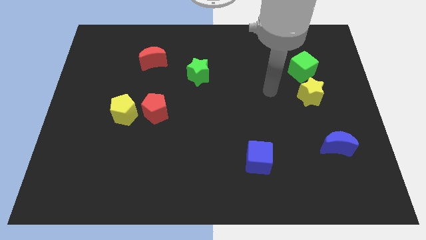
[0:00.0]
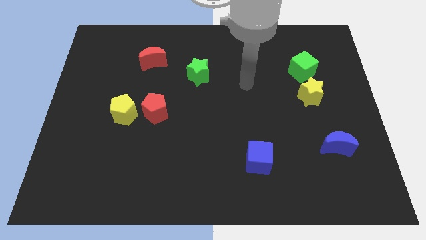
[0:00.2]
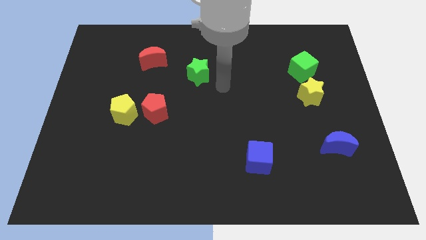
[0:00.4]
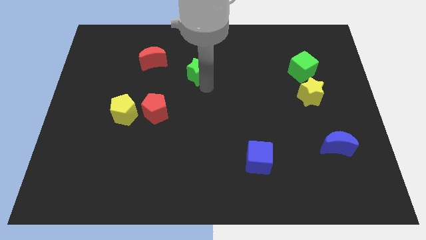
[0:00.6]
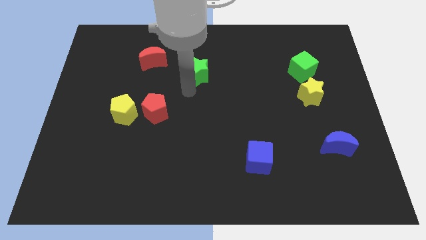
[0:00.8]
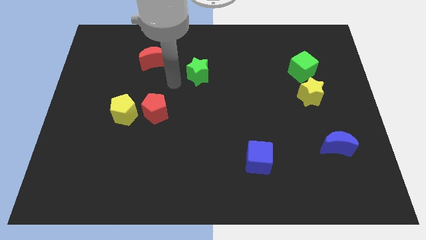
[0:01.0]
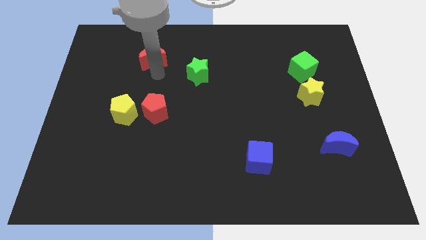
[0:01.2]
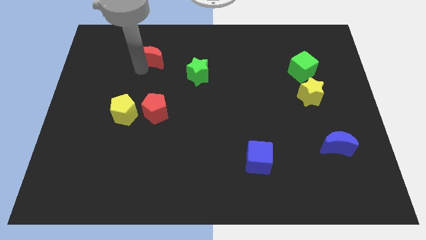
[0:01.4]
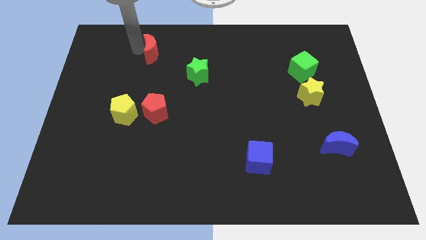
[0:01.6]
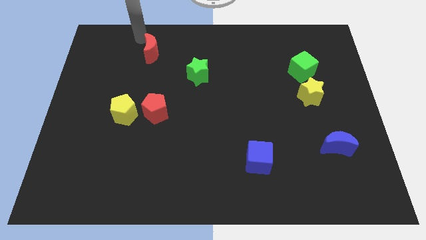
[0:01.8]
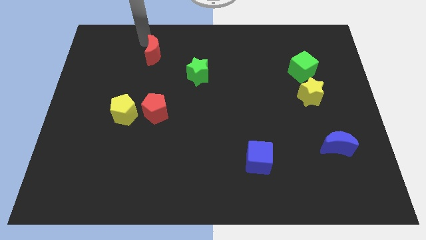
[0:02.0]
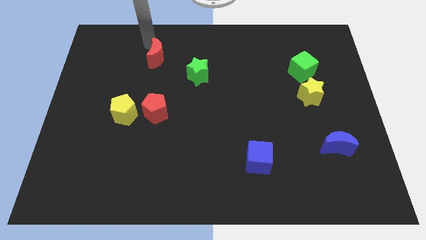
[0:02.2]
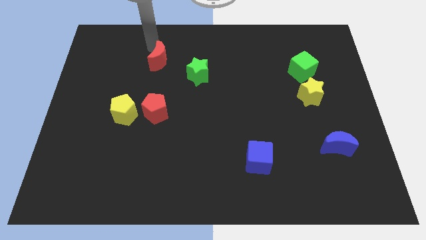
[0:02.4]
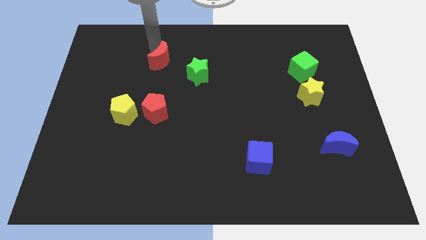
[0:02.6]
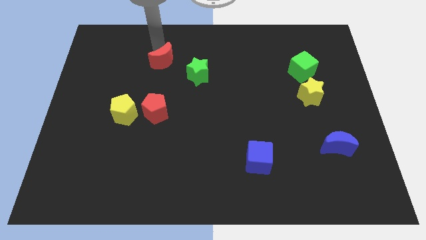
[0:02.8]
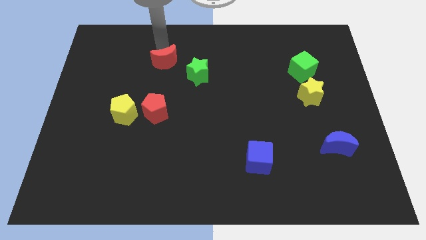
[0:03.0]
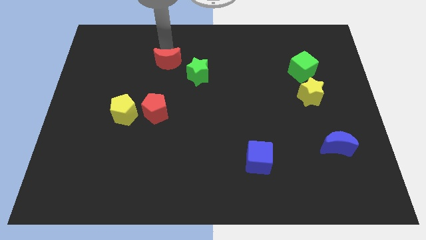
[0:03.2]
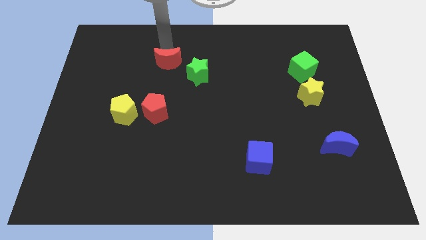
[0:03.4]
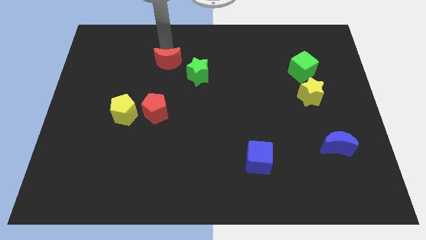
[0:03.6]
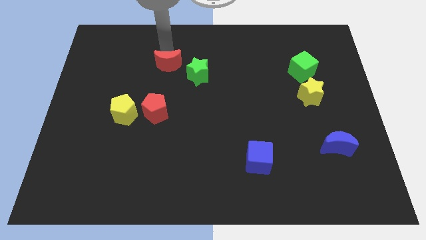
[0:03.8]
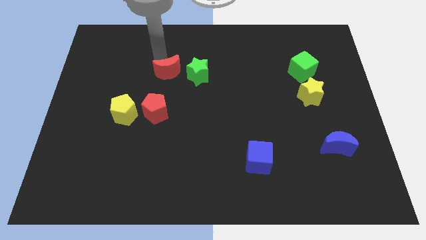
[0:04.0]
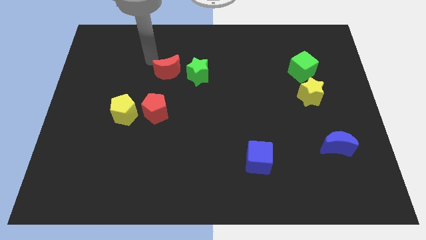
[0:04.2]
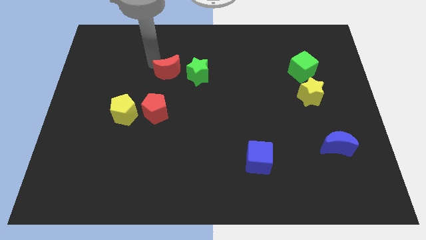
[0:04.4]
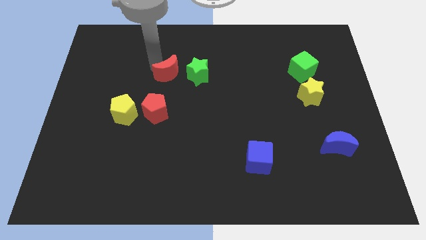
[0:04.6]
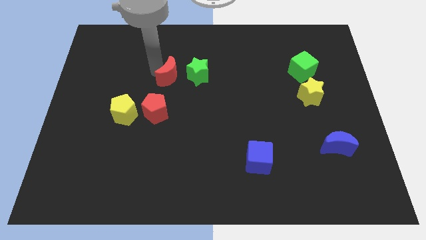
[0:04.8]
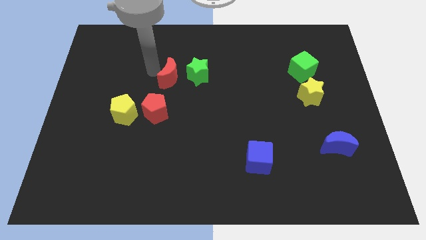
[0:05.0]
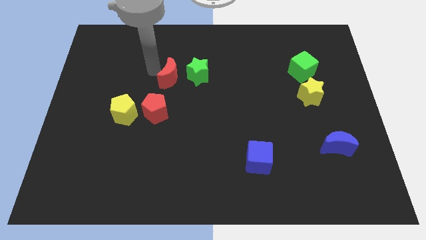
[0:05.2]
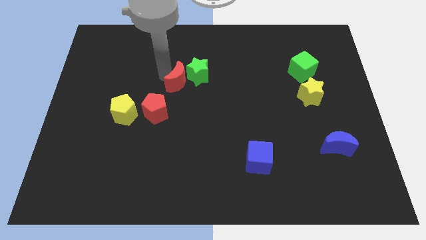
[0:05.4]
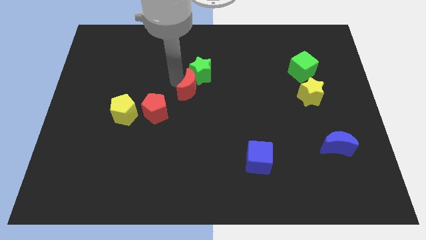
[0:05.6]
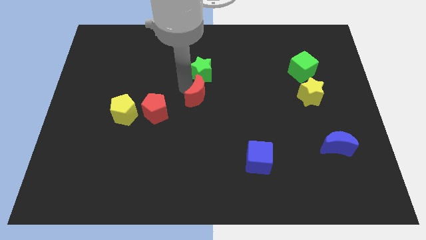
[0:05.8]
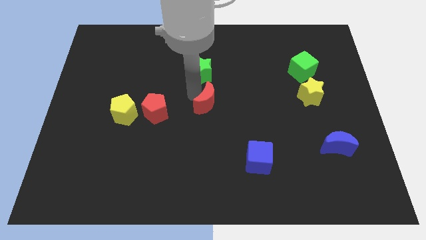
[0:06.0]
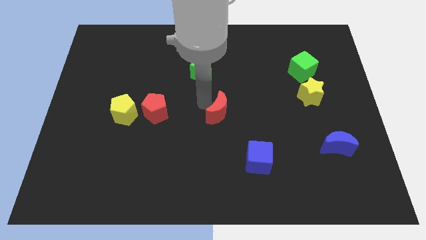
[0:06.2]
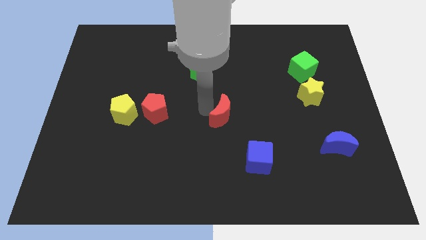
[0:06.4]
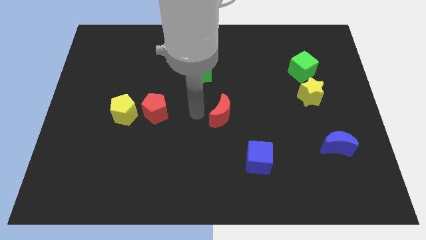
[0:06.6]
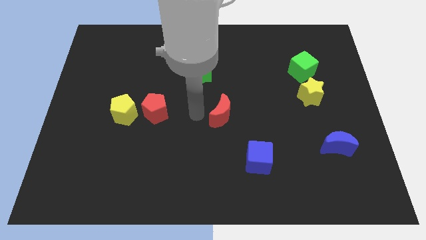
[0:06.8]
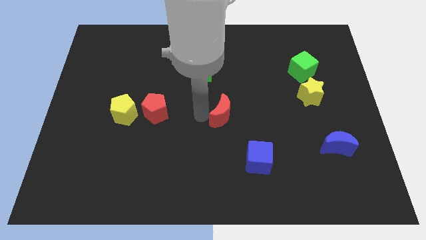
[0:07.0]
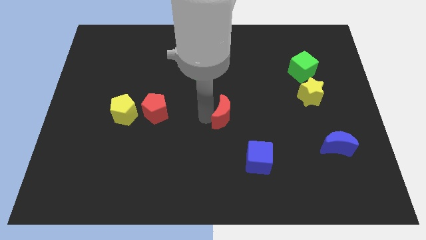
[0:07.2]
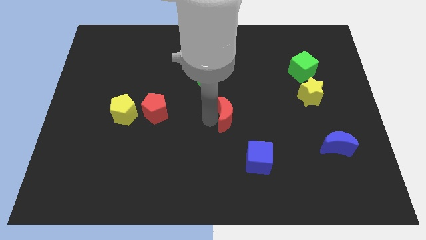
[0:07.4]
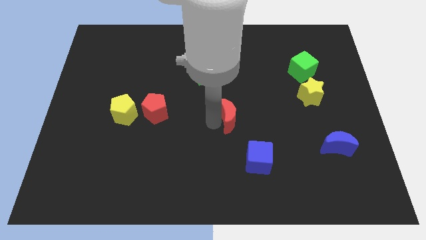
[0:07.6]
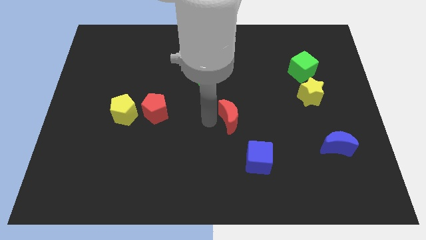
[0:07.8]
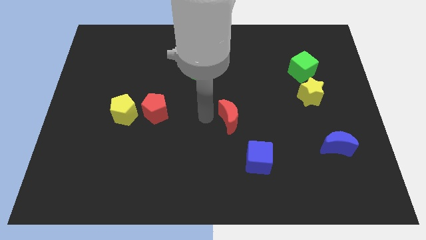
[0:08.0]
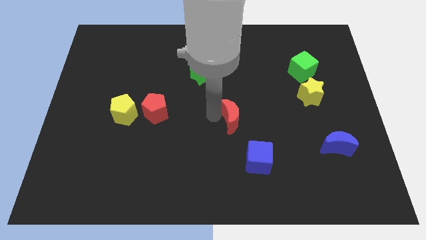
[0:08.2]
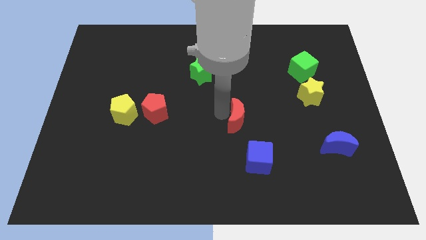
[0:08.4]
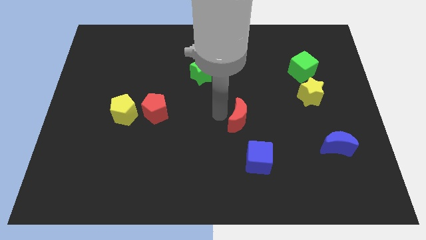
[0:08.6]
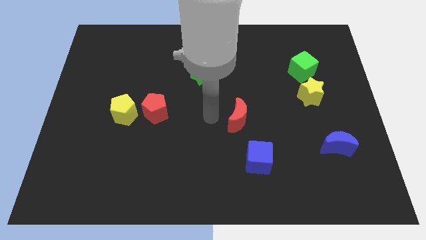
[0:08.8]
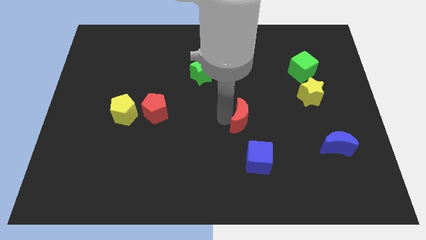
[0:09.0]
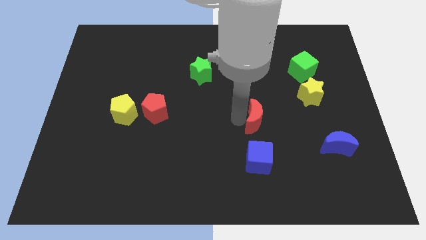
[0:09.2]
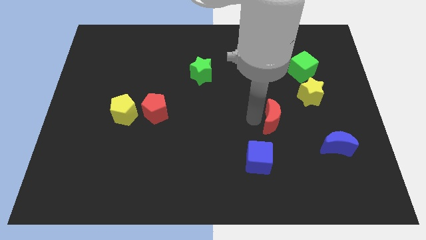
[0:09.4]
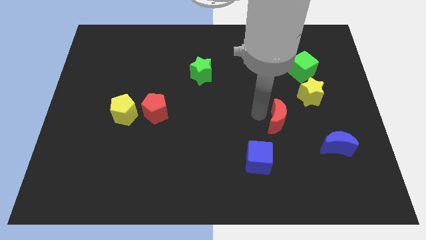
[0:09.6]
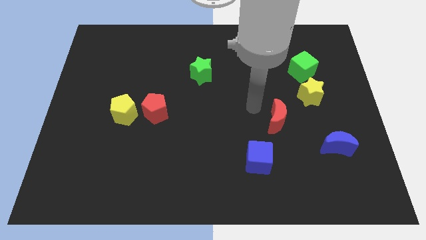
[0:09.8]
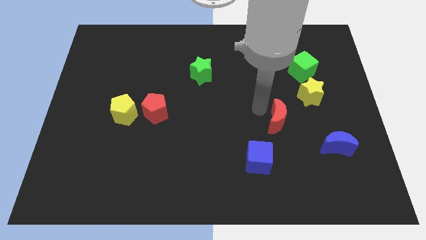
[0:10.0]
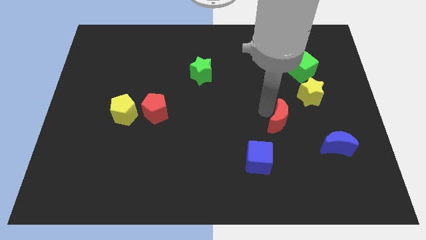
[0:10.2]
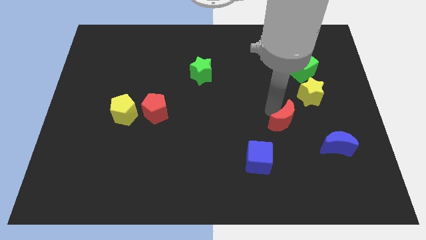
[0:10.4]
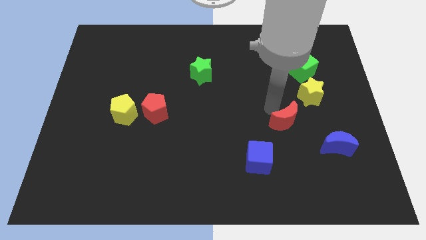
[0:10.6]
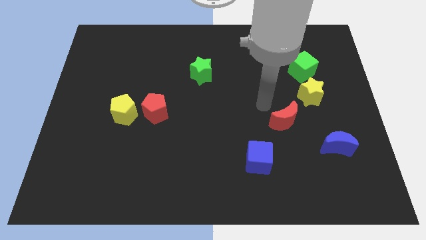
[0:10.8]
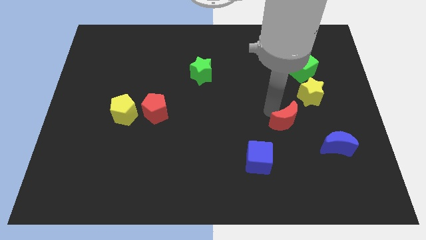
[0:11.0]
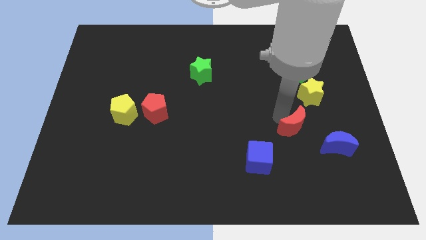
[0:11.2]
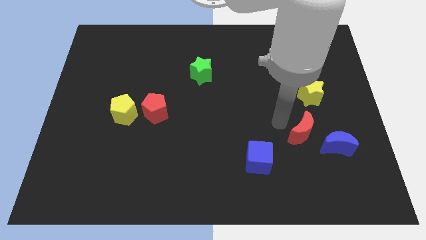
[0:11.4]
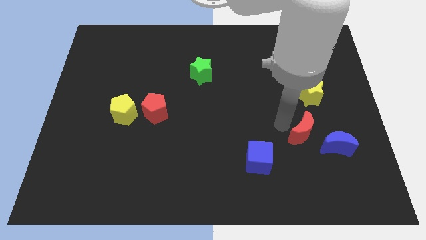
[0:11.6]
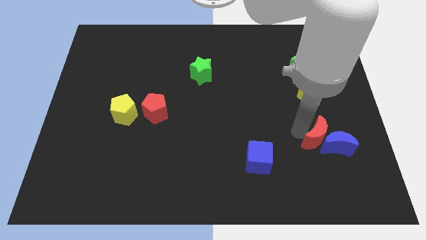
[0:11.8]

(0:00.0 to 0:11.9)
push the red moon close to the blue moon

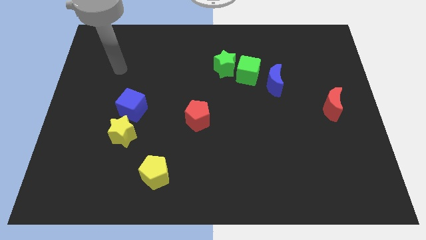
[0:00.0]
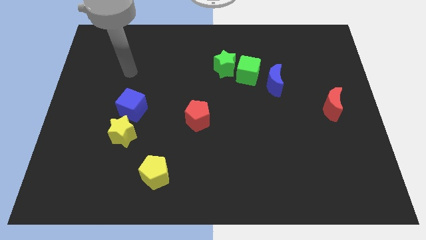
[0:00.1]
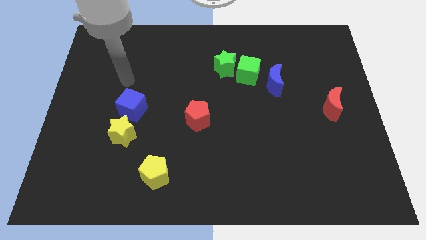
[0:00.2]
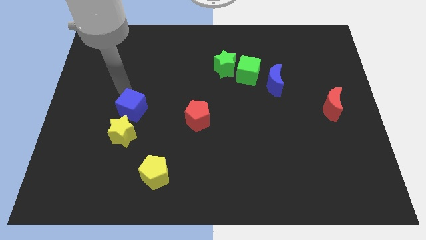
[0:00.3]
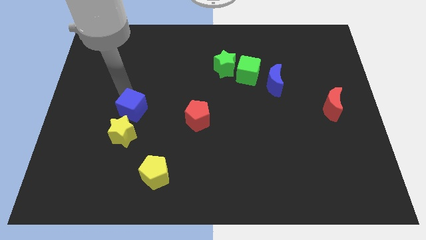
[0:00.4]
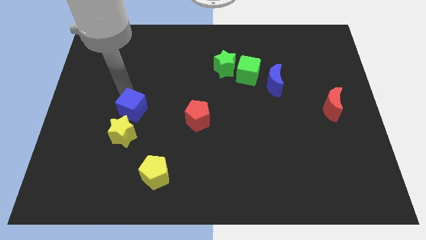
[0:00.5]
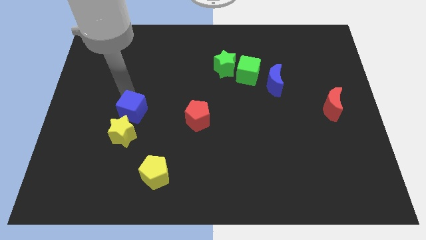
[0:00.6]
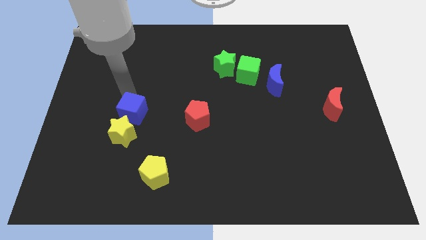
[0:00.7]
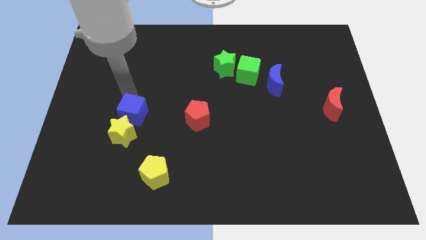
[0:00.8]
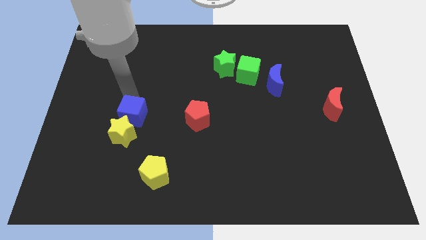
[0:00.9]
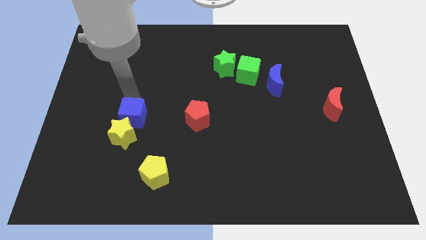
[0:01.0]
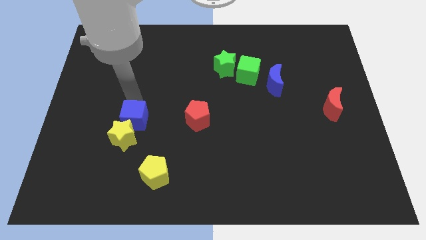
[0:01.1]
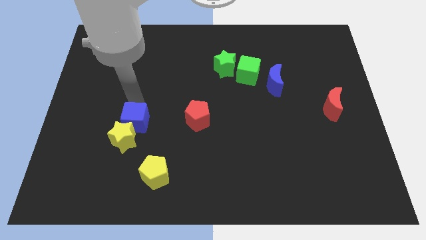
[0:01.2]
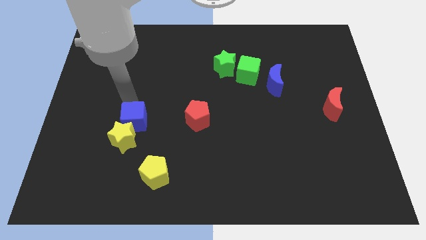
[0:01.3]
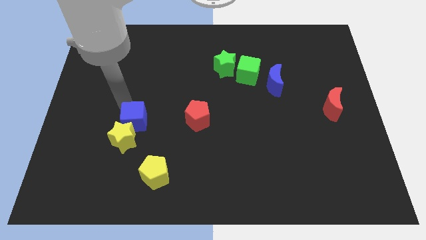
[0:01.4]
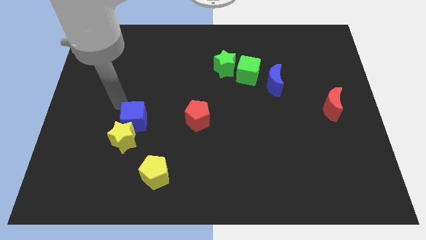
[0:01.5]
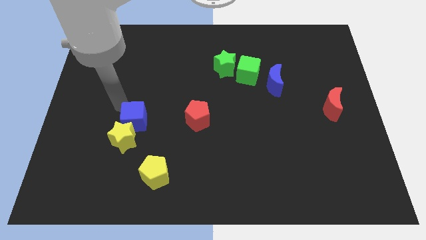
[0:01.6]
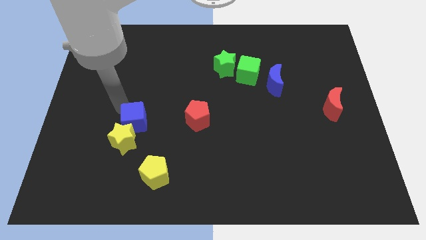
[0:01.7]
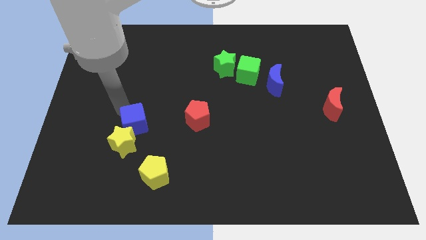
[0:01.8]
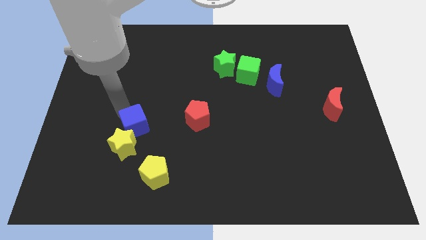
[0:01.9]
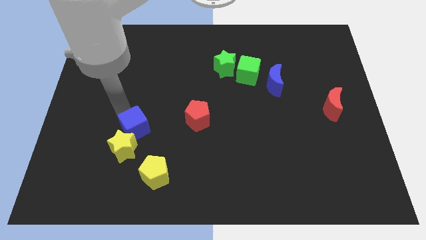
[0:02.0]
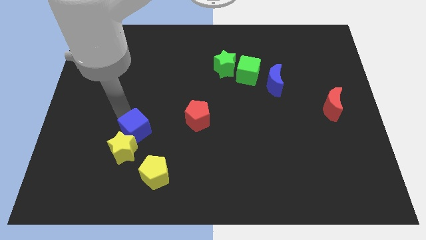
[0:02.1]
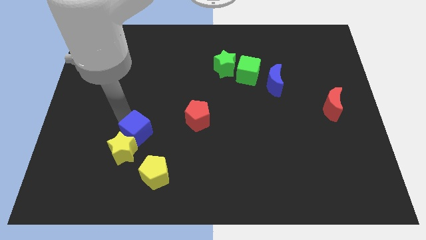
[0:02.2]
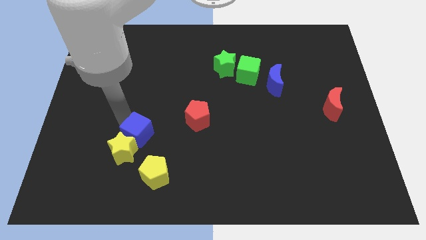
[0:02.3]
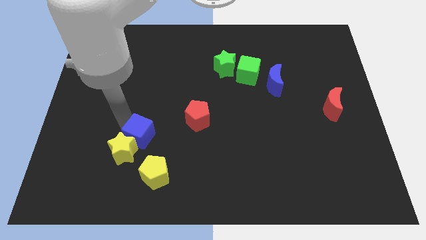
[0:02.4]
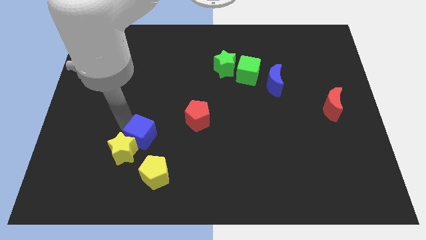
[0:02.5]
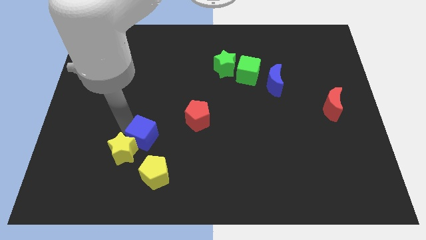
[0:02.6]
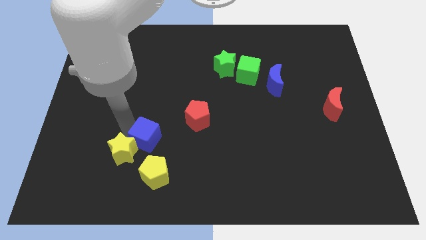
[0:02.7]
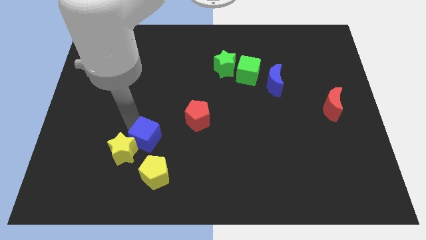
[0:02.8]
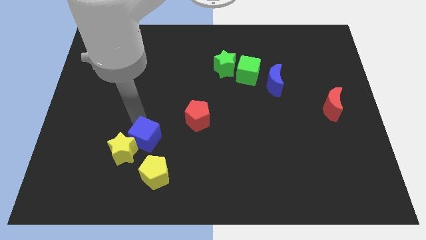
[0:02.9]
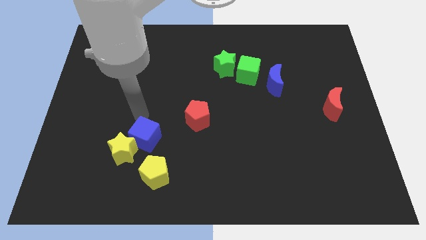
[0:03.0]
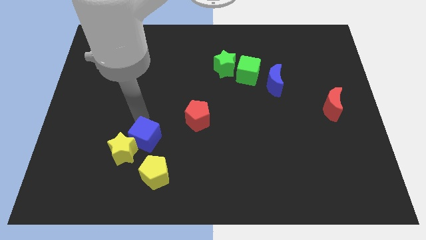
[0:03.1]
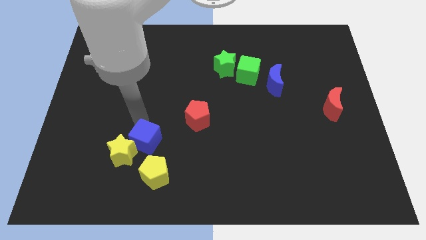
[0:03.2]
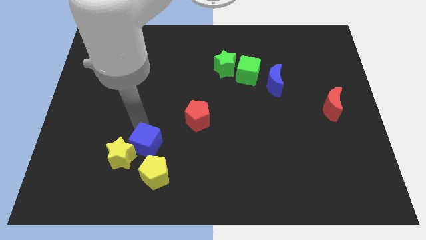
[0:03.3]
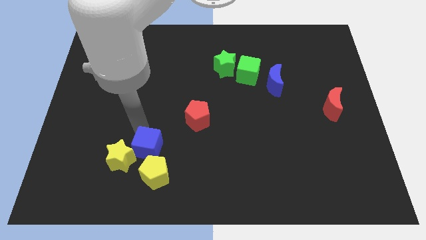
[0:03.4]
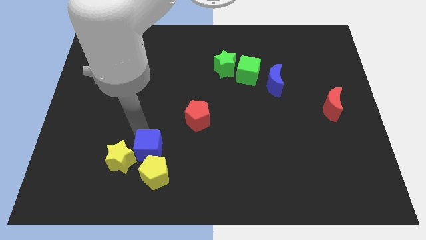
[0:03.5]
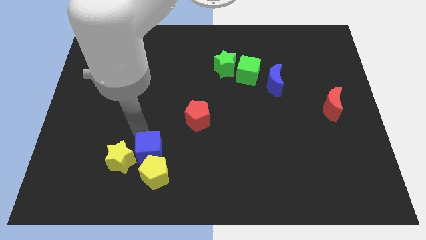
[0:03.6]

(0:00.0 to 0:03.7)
slide the blue cube next to the yellow pentagon
